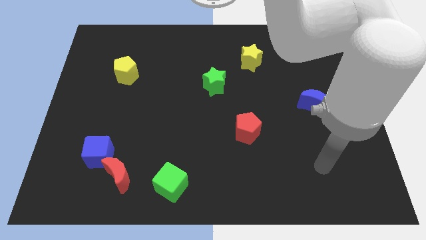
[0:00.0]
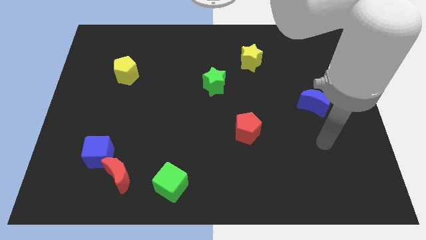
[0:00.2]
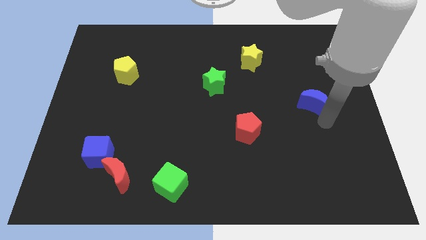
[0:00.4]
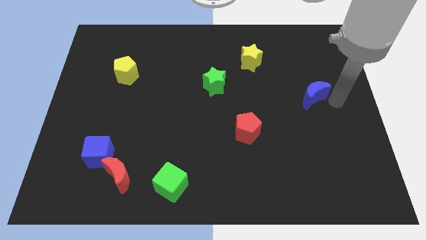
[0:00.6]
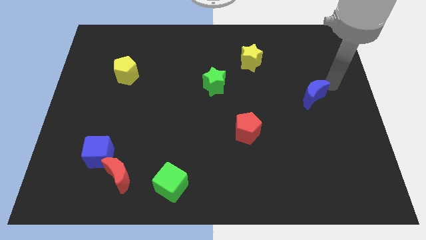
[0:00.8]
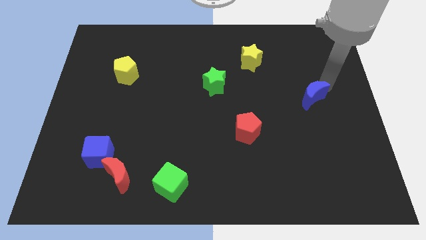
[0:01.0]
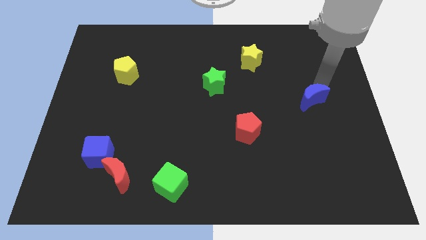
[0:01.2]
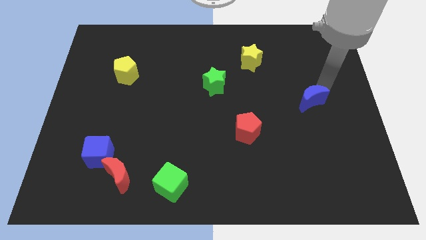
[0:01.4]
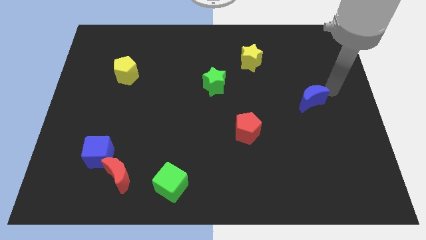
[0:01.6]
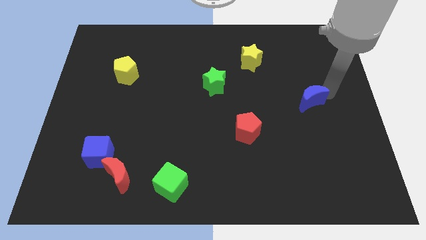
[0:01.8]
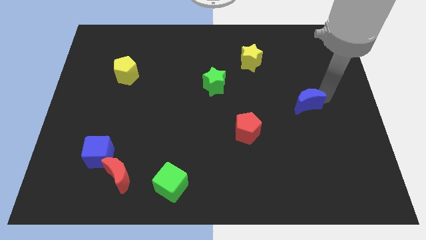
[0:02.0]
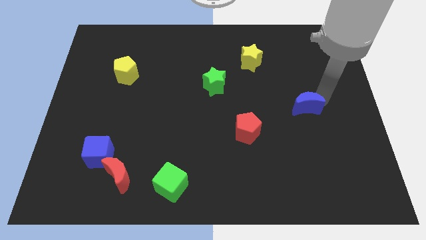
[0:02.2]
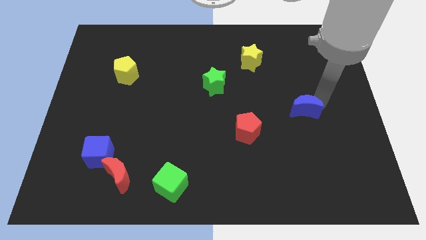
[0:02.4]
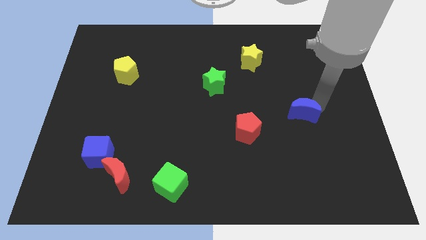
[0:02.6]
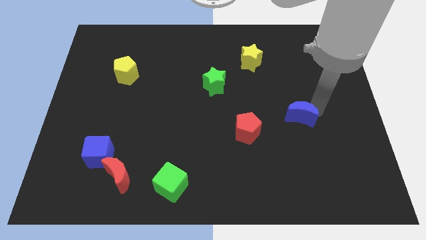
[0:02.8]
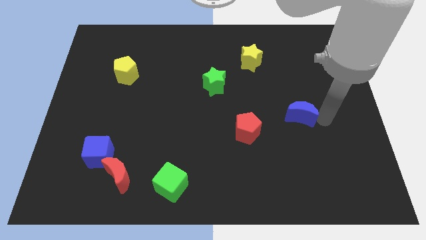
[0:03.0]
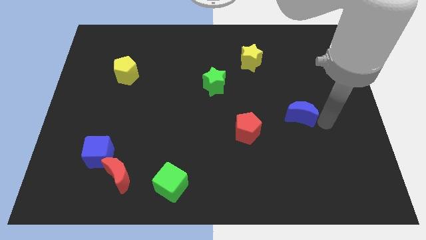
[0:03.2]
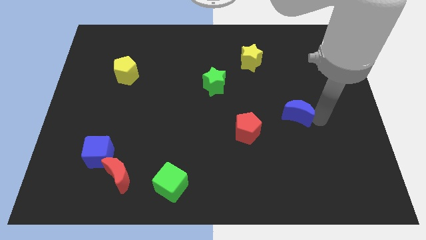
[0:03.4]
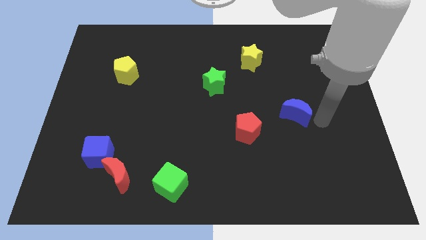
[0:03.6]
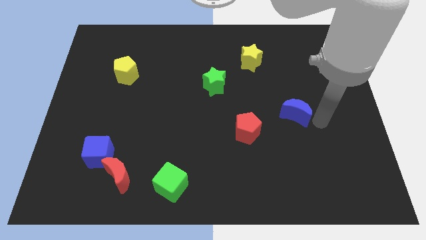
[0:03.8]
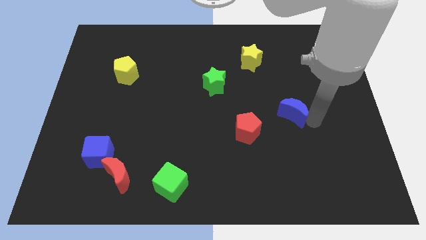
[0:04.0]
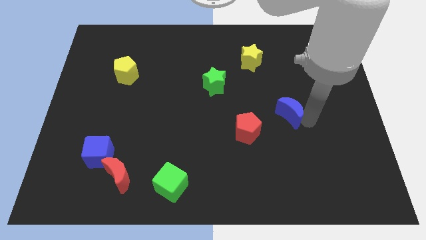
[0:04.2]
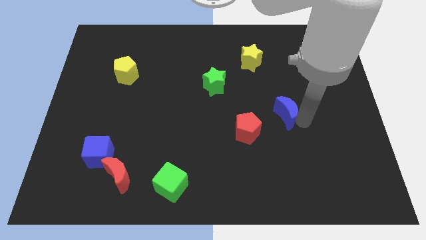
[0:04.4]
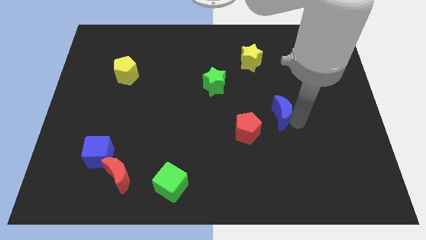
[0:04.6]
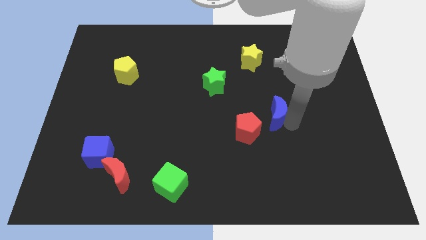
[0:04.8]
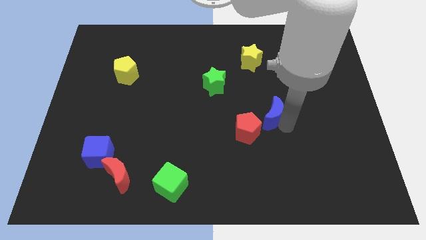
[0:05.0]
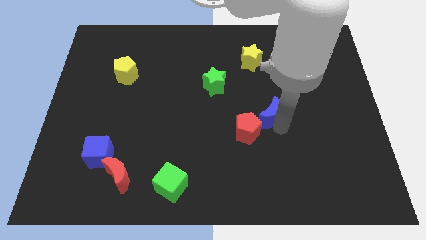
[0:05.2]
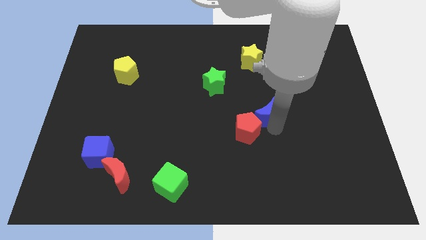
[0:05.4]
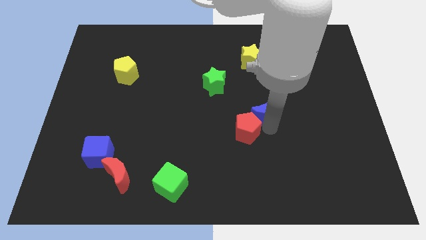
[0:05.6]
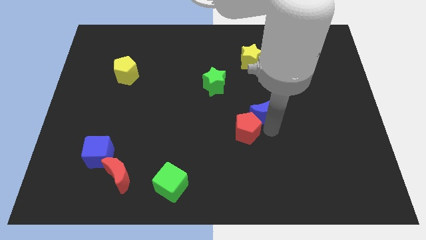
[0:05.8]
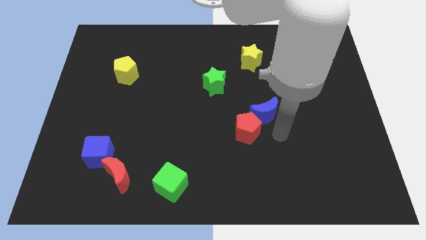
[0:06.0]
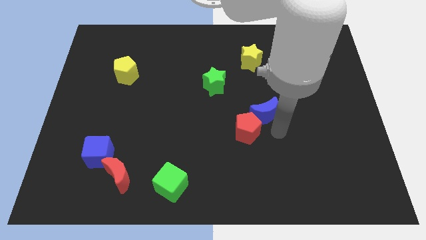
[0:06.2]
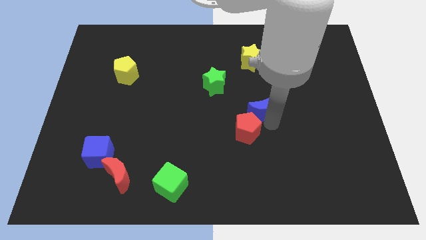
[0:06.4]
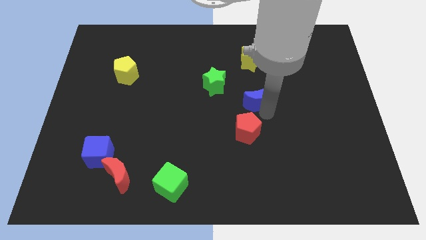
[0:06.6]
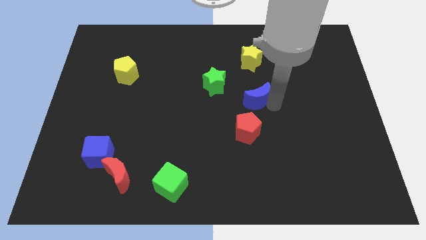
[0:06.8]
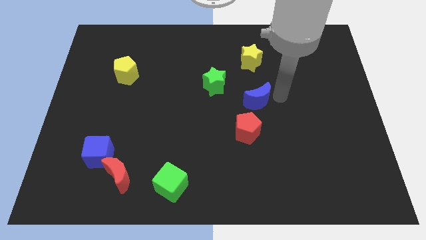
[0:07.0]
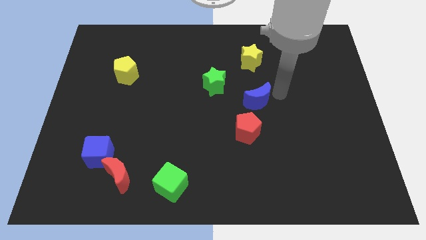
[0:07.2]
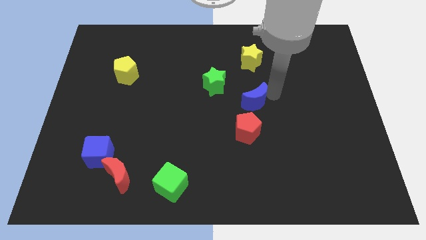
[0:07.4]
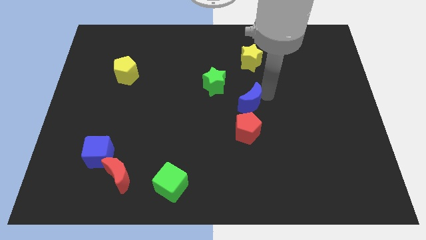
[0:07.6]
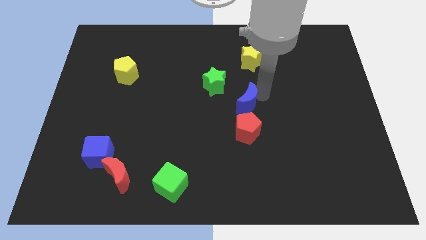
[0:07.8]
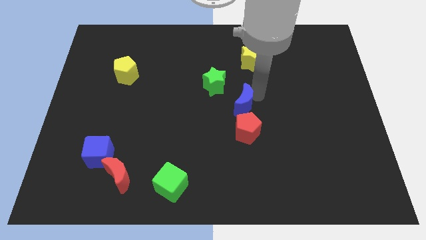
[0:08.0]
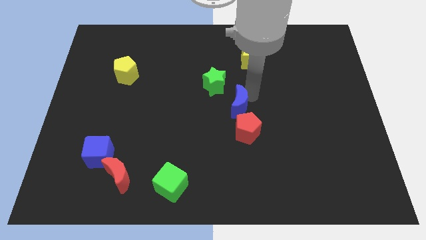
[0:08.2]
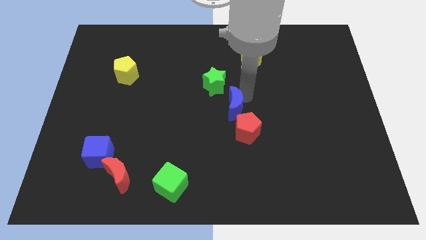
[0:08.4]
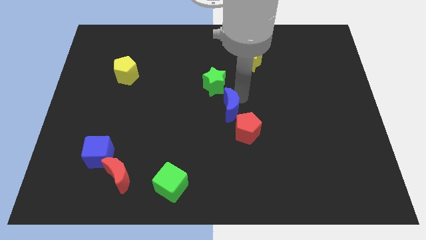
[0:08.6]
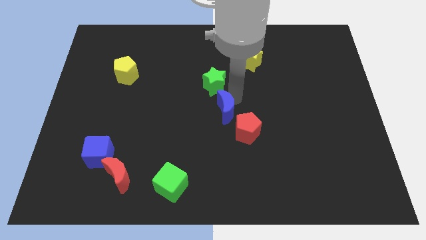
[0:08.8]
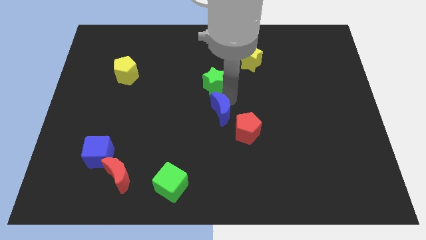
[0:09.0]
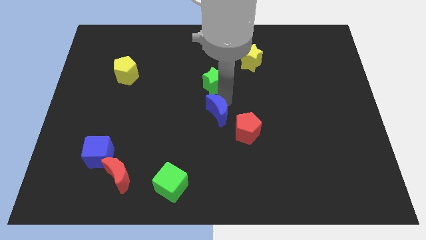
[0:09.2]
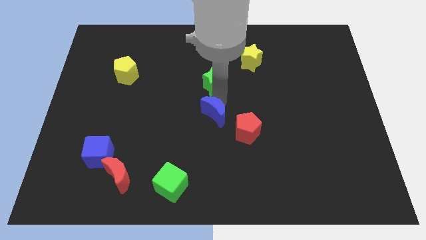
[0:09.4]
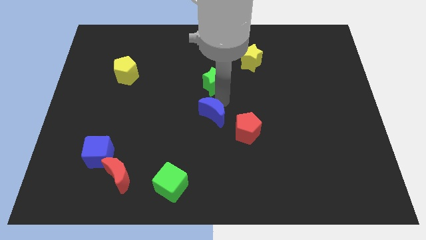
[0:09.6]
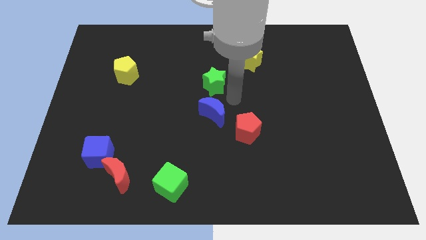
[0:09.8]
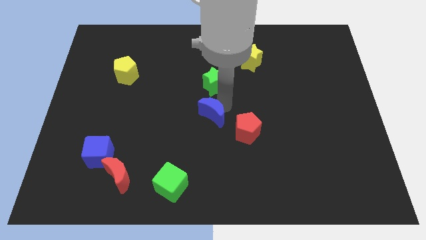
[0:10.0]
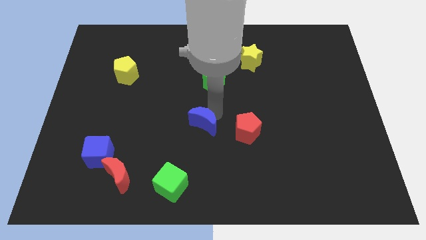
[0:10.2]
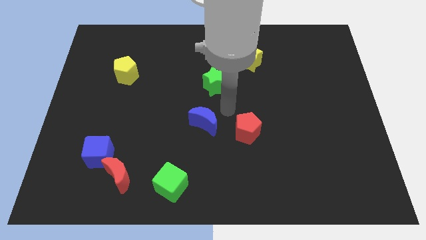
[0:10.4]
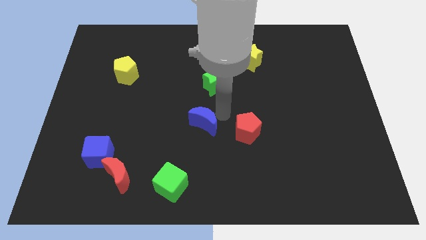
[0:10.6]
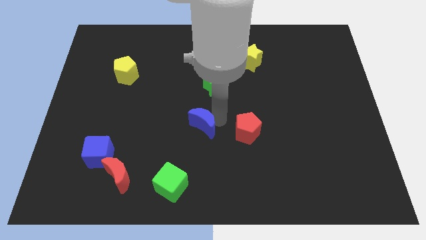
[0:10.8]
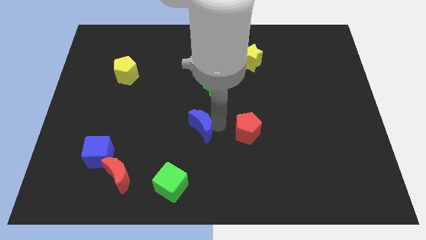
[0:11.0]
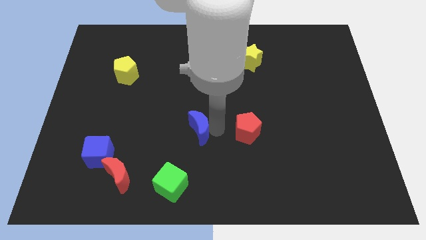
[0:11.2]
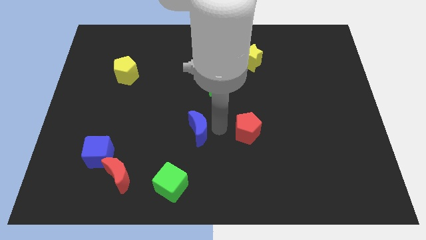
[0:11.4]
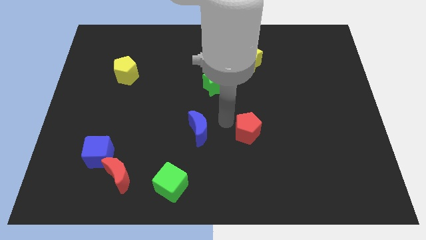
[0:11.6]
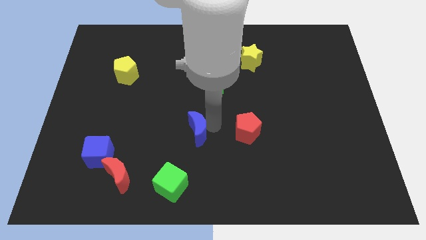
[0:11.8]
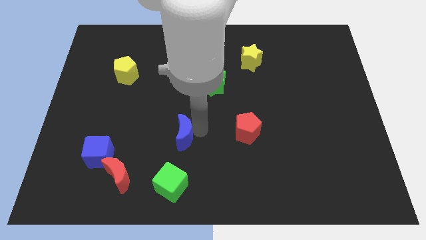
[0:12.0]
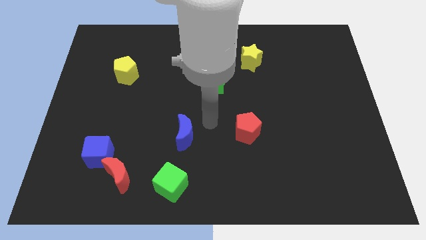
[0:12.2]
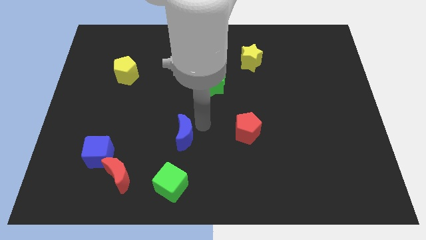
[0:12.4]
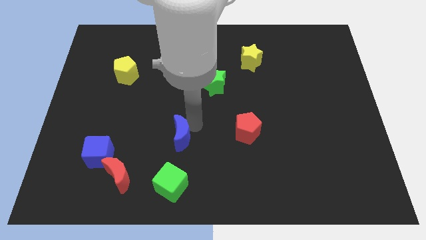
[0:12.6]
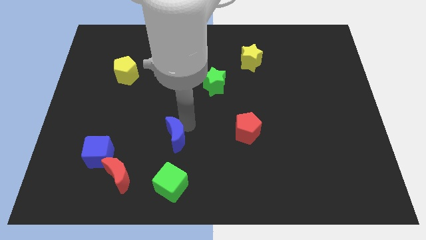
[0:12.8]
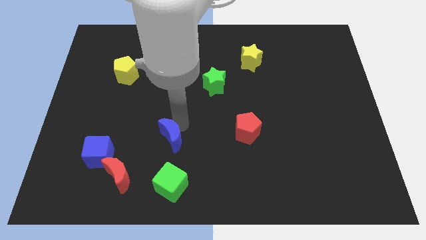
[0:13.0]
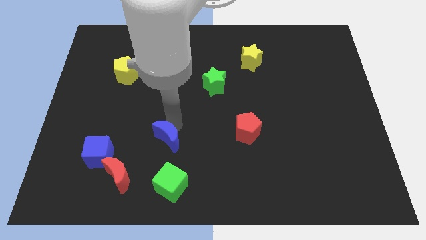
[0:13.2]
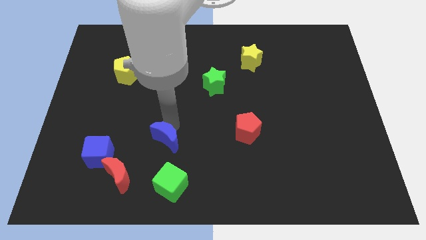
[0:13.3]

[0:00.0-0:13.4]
put the blue moon to the right of the blue cube

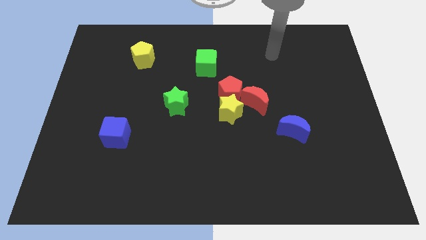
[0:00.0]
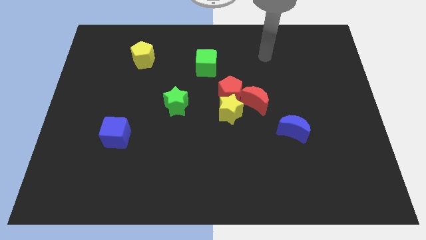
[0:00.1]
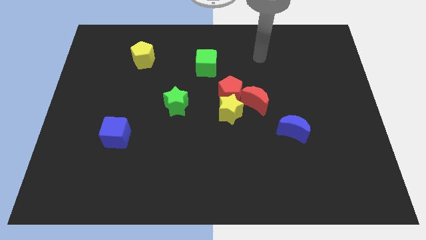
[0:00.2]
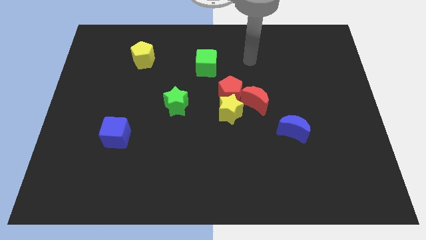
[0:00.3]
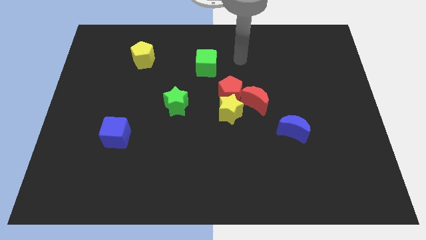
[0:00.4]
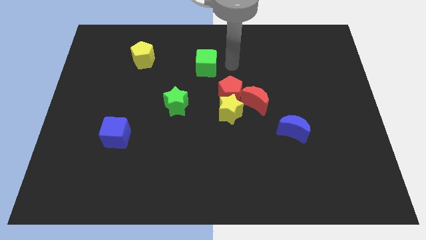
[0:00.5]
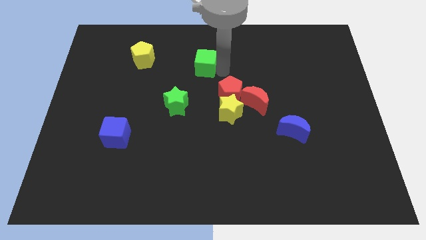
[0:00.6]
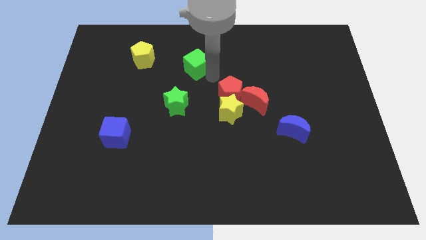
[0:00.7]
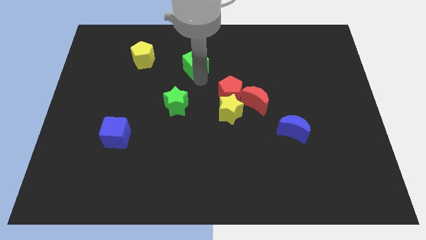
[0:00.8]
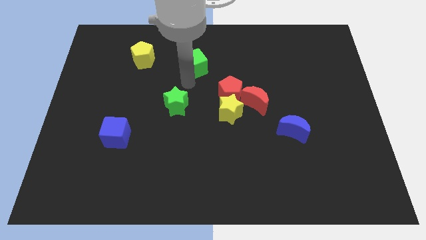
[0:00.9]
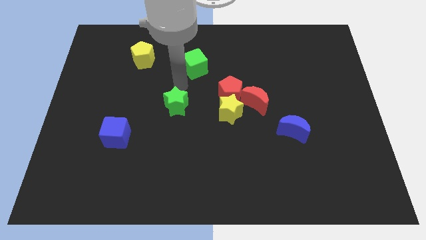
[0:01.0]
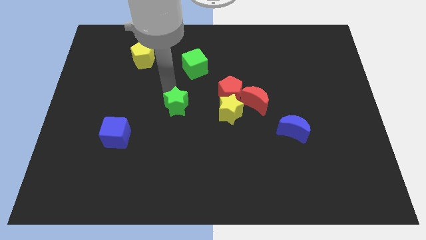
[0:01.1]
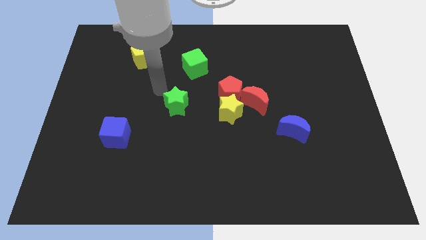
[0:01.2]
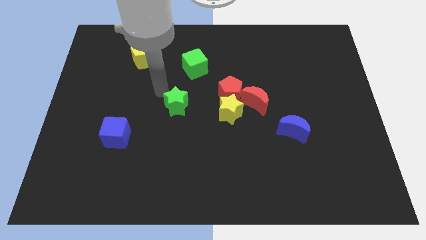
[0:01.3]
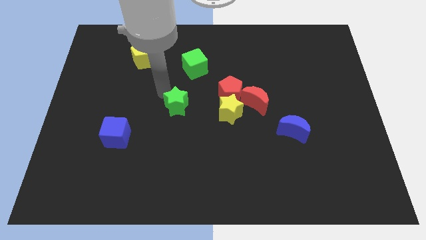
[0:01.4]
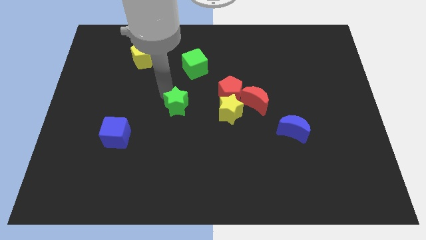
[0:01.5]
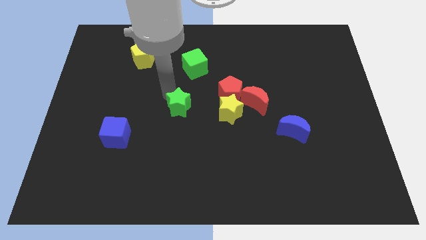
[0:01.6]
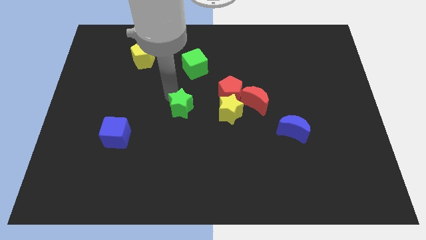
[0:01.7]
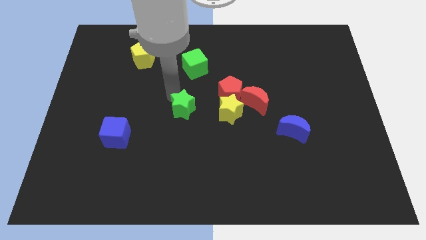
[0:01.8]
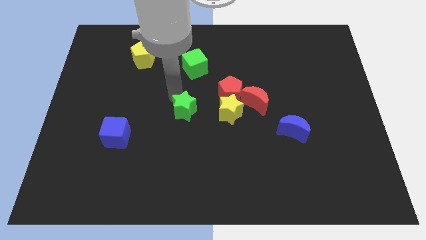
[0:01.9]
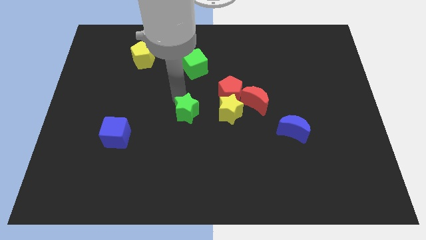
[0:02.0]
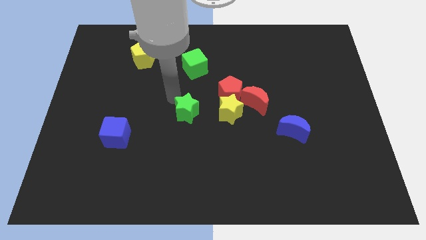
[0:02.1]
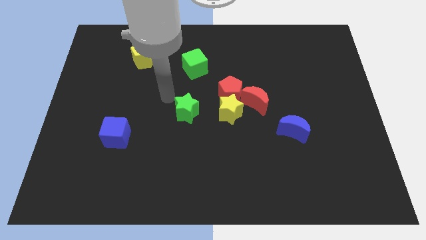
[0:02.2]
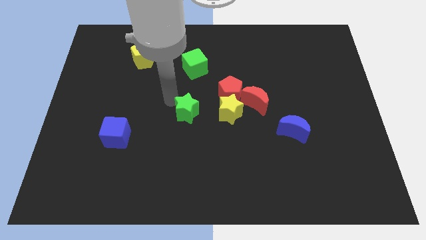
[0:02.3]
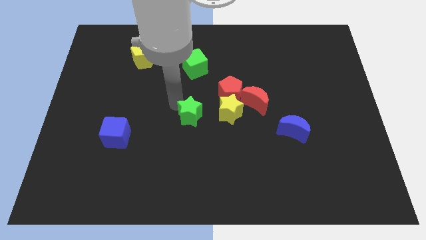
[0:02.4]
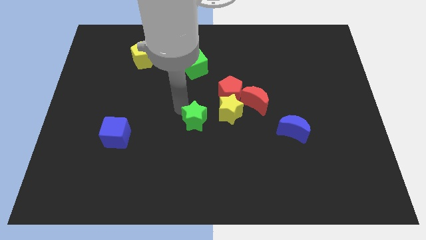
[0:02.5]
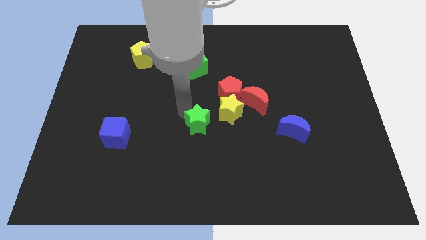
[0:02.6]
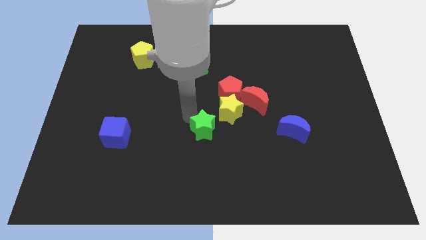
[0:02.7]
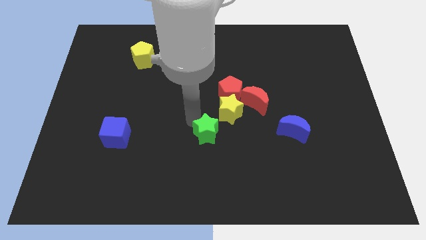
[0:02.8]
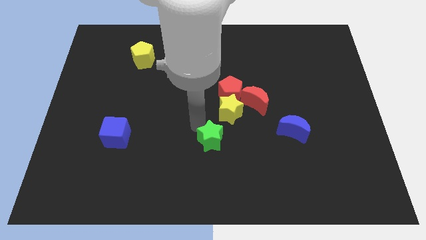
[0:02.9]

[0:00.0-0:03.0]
push the green star below the yellow star
